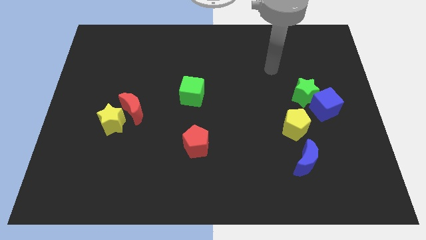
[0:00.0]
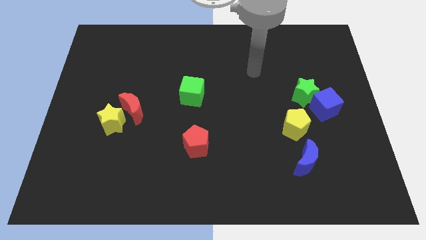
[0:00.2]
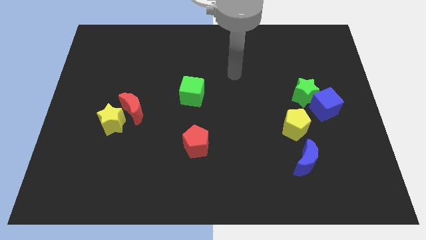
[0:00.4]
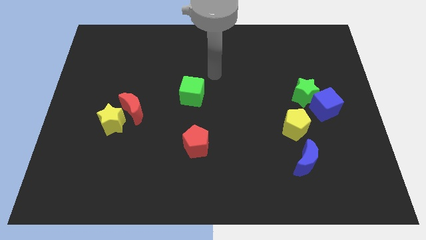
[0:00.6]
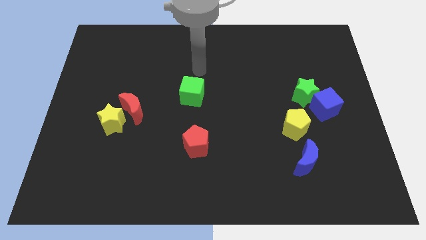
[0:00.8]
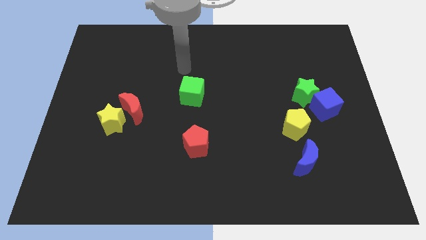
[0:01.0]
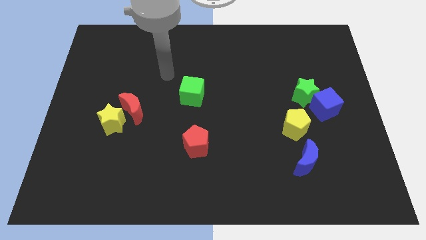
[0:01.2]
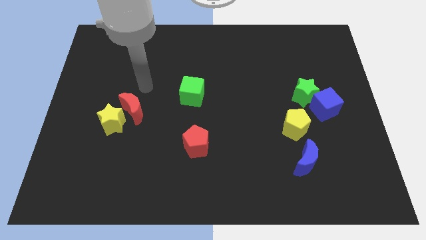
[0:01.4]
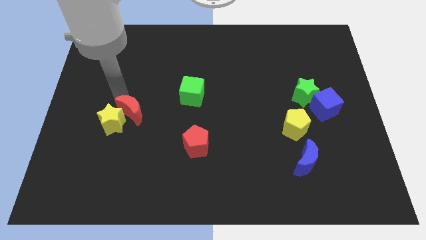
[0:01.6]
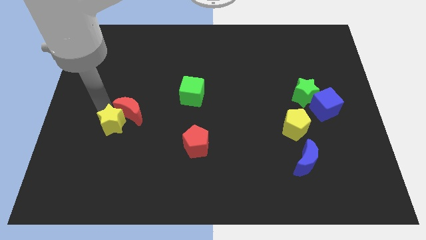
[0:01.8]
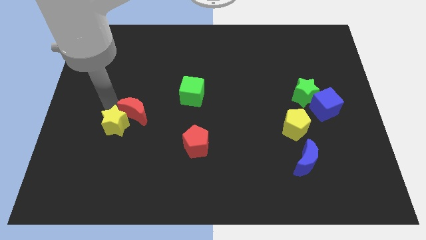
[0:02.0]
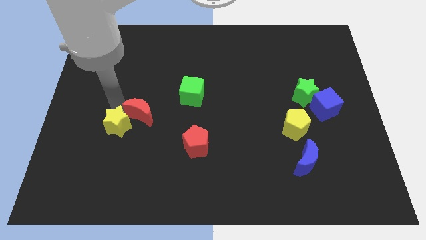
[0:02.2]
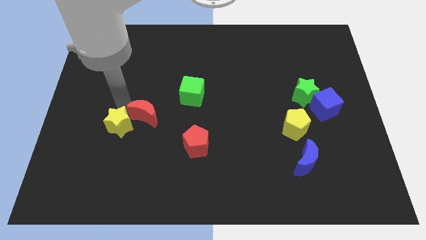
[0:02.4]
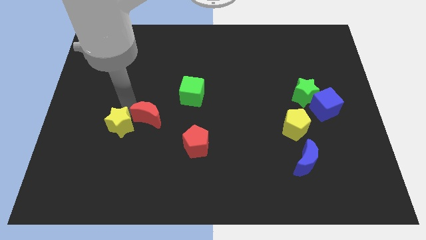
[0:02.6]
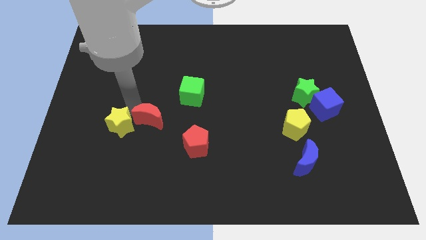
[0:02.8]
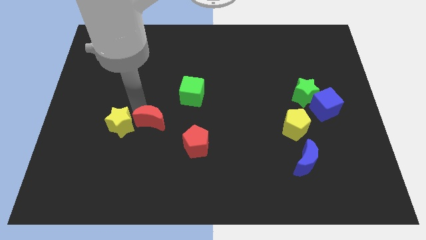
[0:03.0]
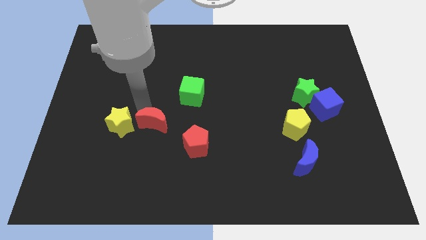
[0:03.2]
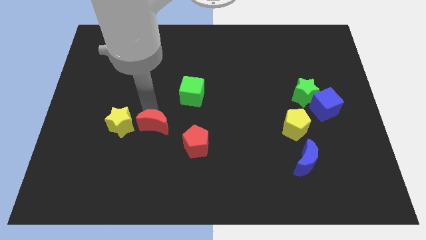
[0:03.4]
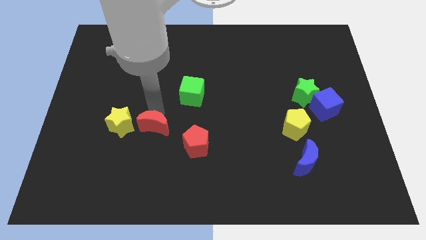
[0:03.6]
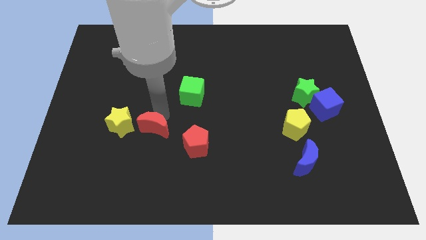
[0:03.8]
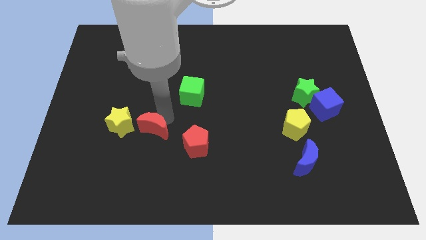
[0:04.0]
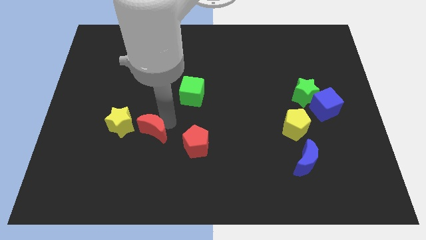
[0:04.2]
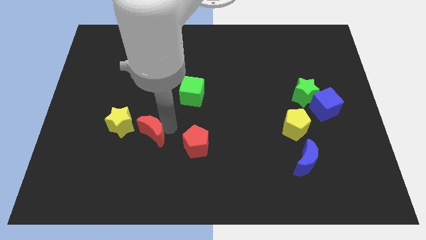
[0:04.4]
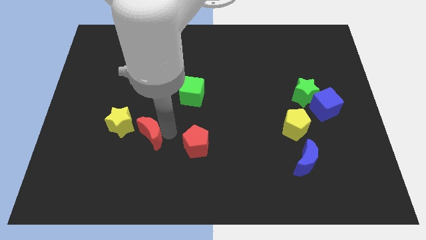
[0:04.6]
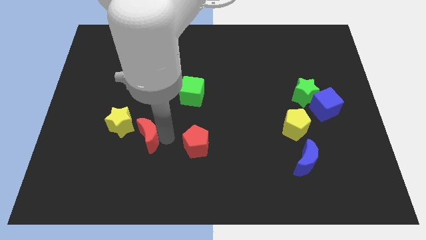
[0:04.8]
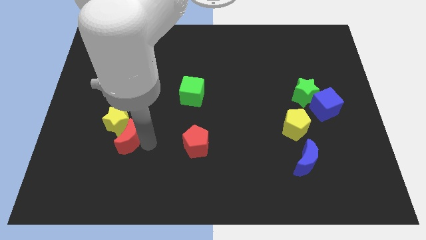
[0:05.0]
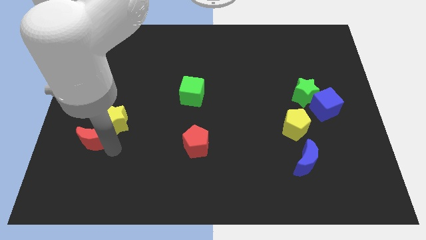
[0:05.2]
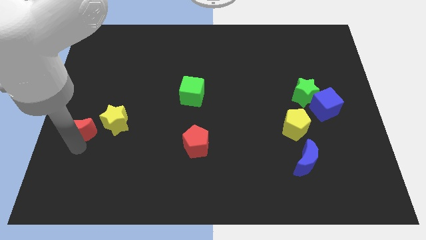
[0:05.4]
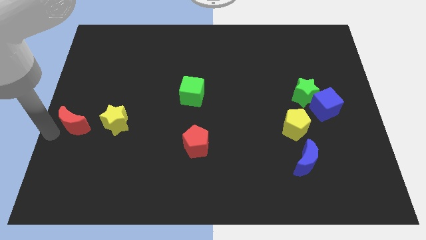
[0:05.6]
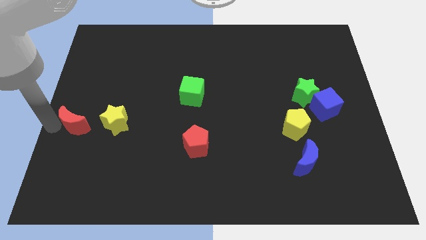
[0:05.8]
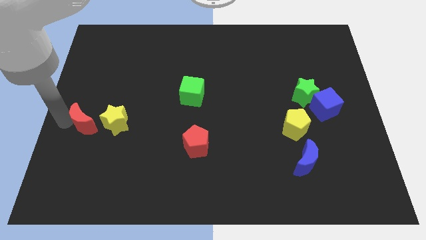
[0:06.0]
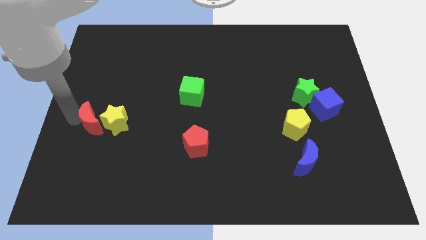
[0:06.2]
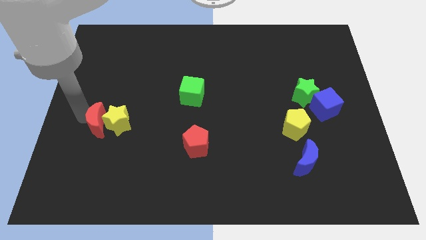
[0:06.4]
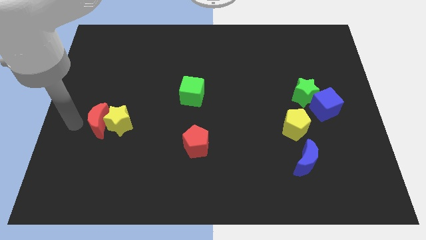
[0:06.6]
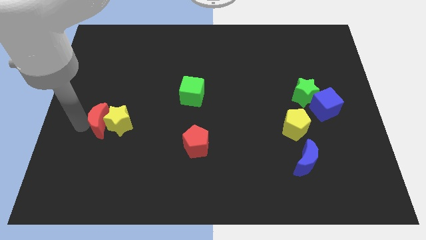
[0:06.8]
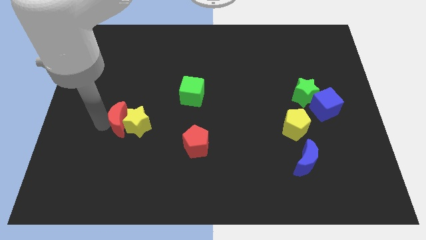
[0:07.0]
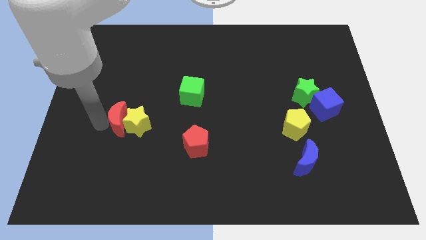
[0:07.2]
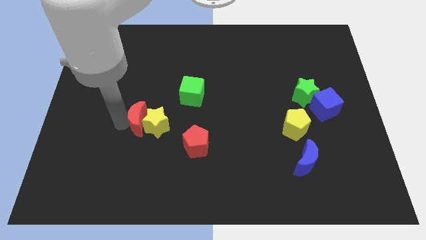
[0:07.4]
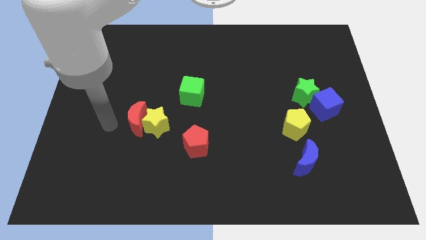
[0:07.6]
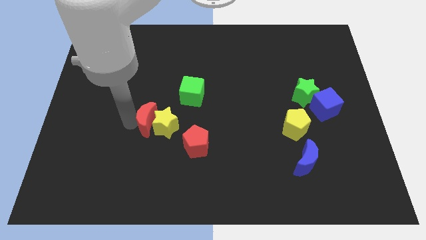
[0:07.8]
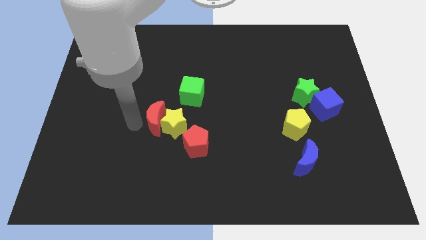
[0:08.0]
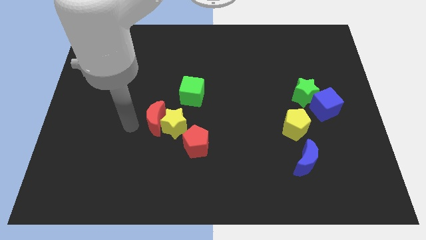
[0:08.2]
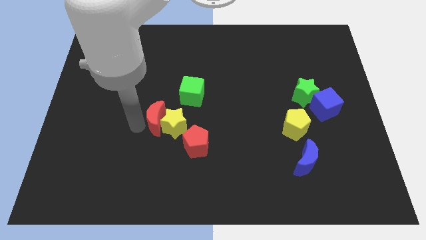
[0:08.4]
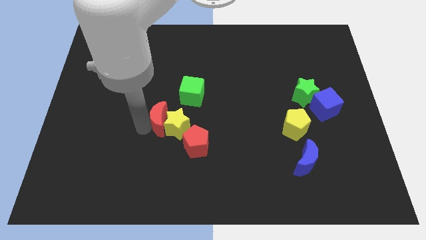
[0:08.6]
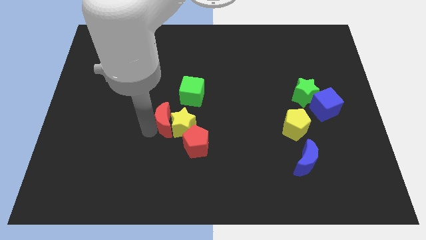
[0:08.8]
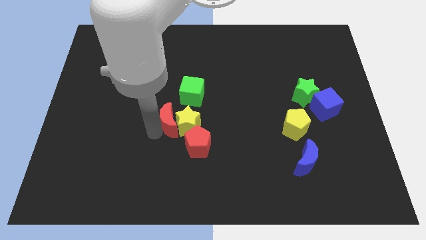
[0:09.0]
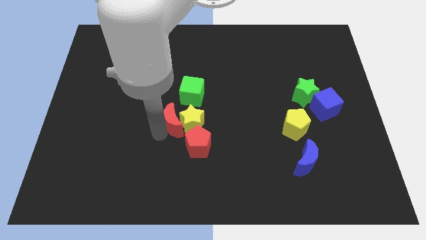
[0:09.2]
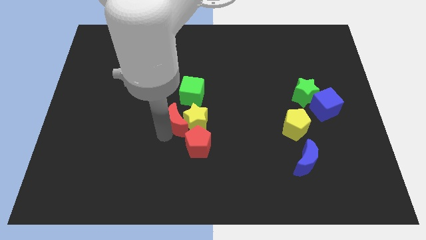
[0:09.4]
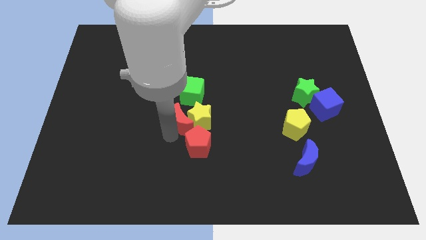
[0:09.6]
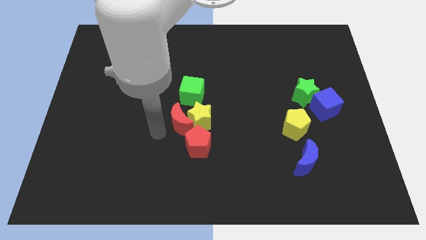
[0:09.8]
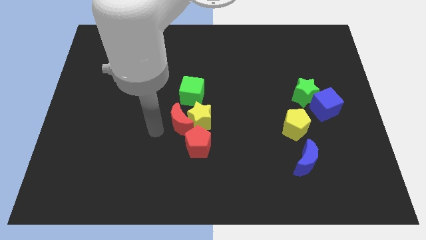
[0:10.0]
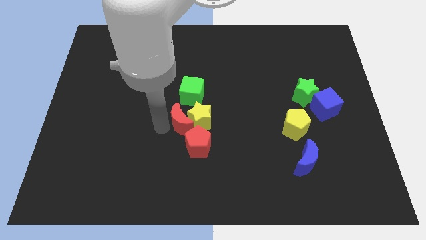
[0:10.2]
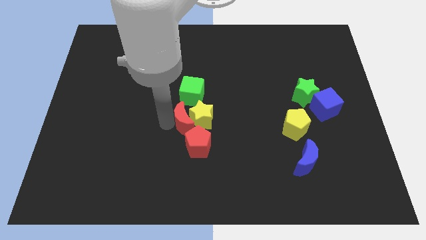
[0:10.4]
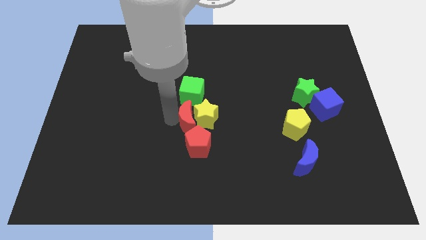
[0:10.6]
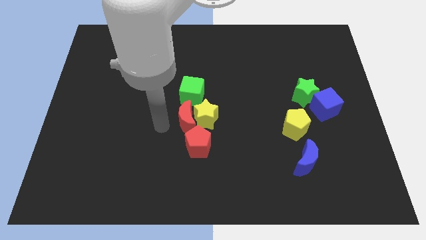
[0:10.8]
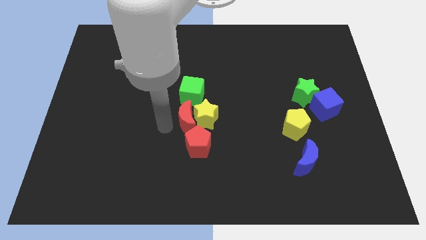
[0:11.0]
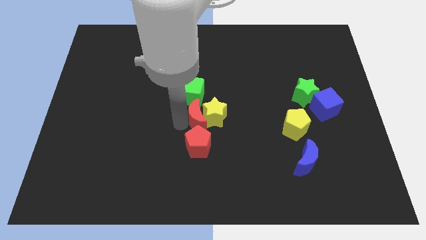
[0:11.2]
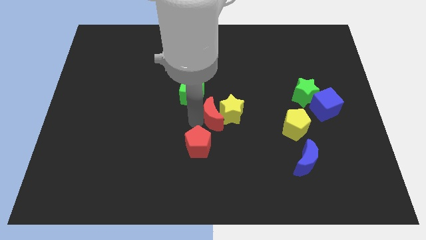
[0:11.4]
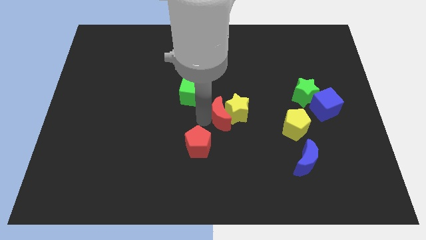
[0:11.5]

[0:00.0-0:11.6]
slide the red moon to the right

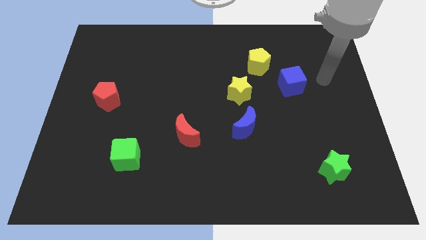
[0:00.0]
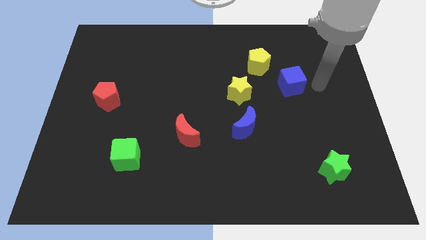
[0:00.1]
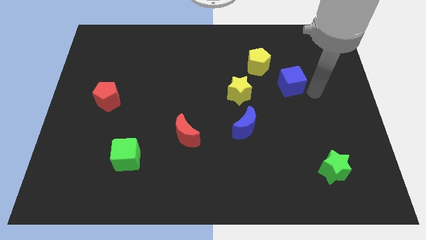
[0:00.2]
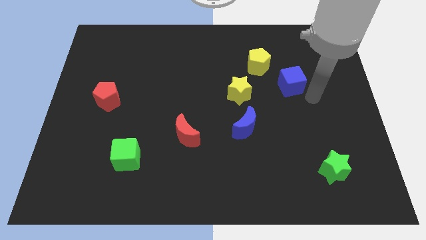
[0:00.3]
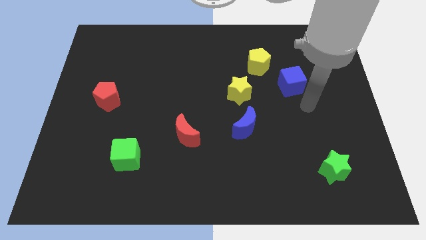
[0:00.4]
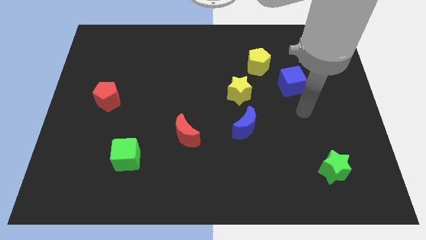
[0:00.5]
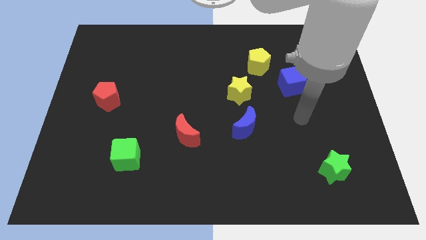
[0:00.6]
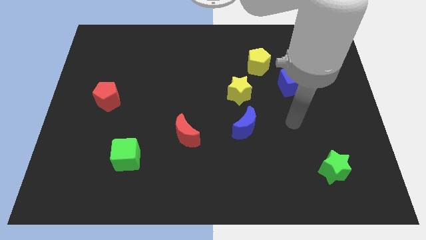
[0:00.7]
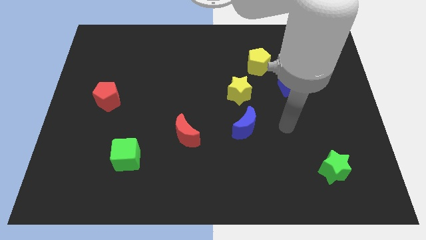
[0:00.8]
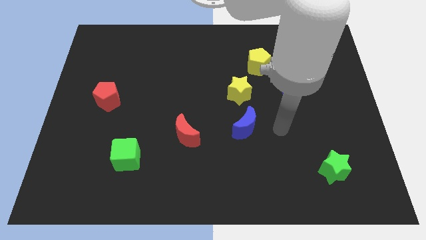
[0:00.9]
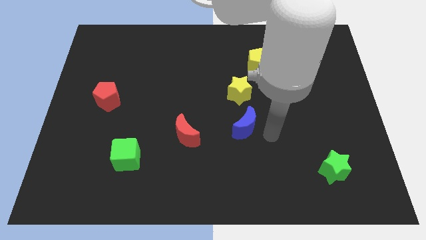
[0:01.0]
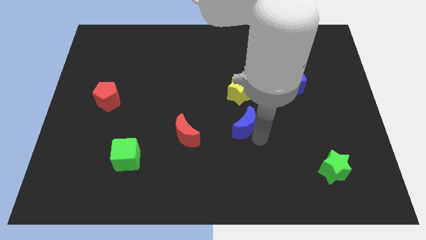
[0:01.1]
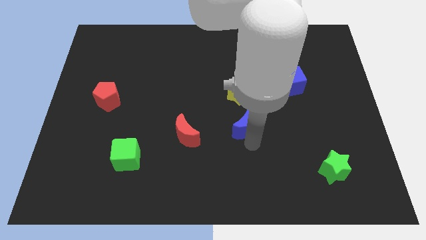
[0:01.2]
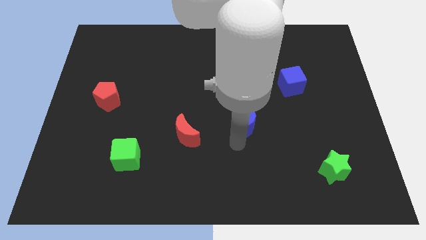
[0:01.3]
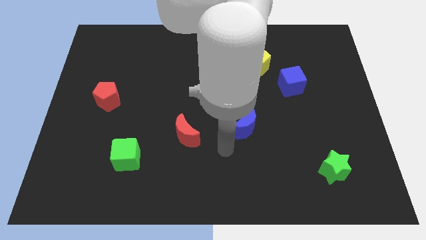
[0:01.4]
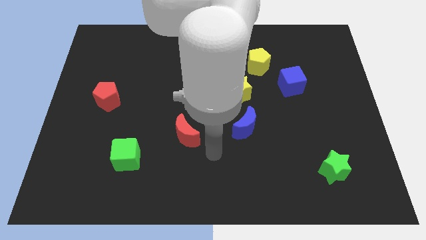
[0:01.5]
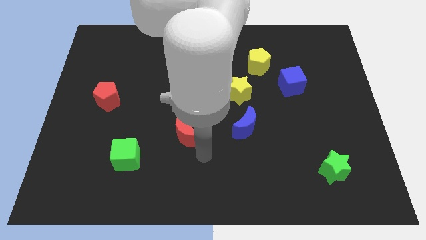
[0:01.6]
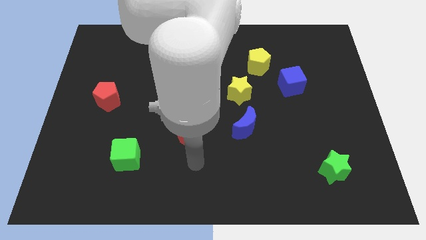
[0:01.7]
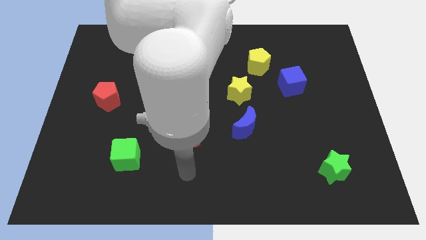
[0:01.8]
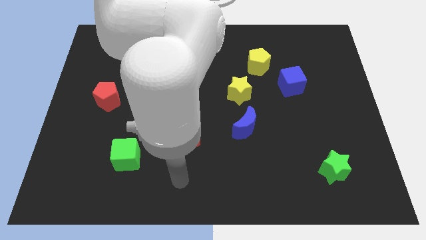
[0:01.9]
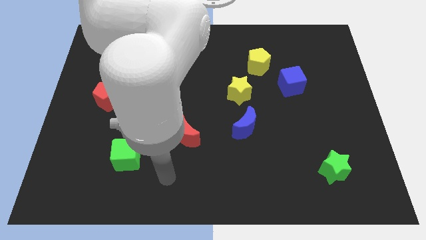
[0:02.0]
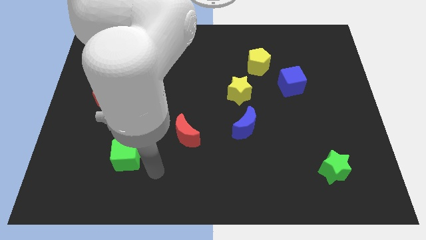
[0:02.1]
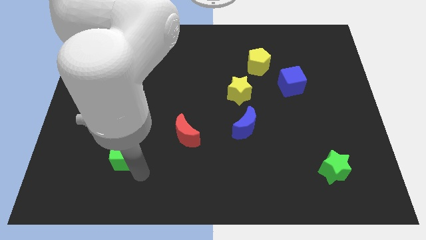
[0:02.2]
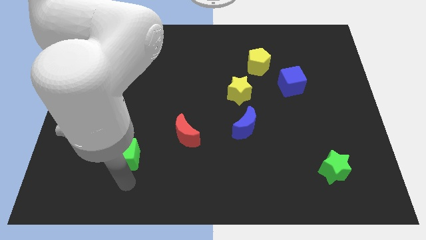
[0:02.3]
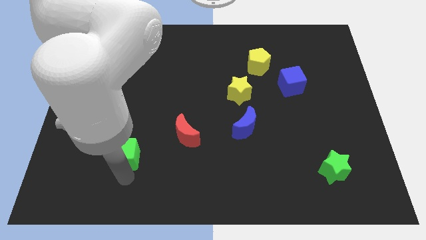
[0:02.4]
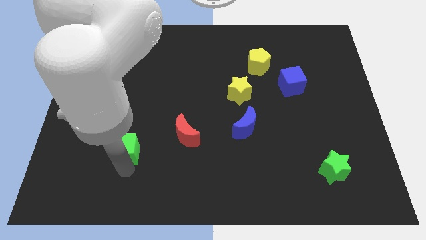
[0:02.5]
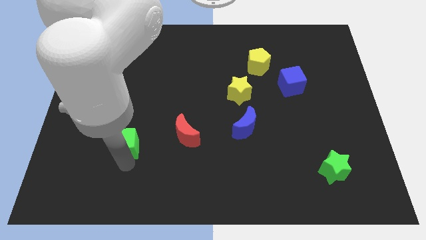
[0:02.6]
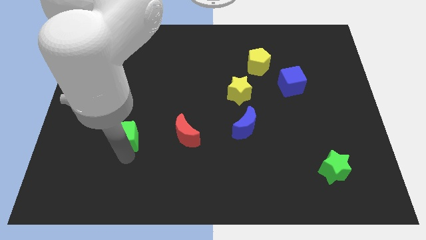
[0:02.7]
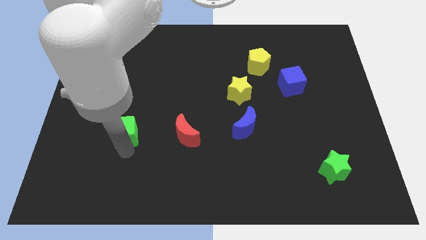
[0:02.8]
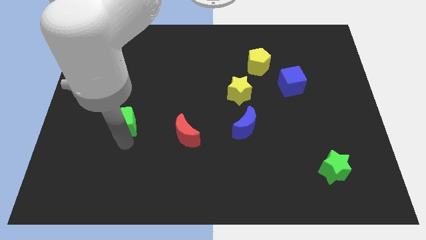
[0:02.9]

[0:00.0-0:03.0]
slightly slide the green cube upwards
